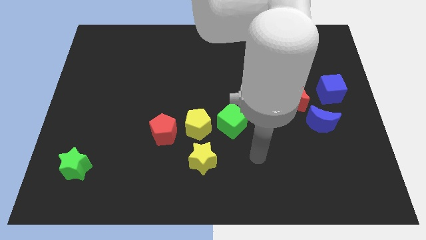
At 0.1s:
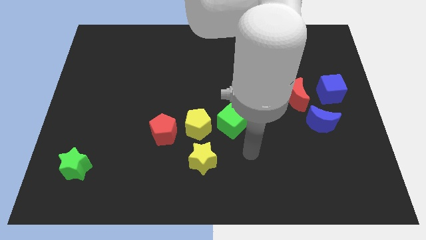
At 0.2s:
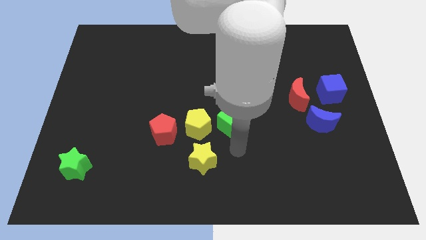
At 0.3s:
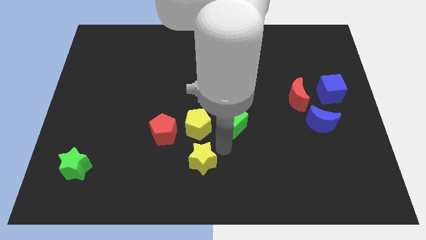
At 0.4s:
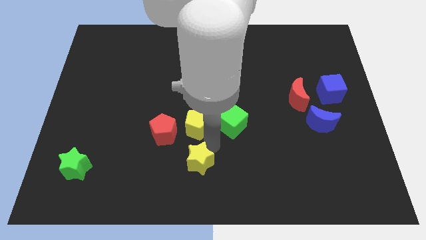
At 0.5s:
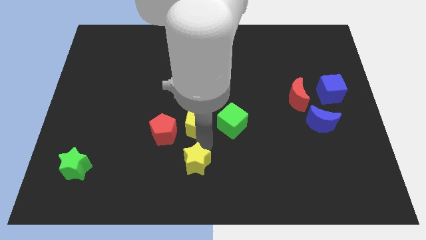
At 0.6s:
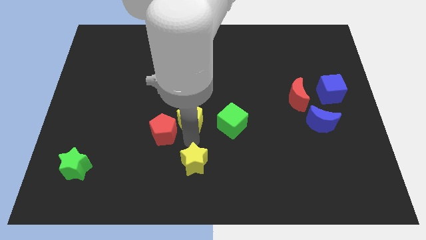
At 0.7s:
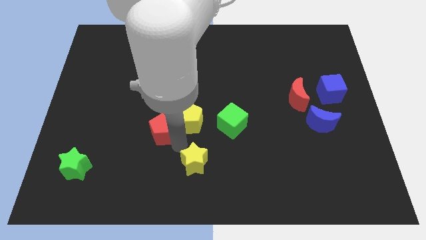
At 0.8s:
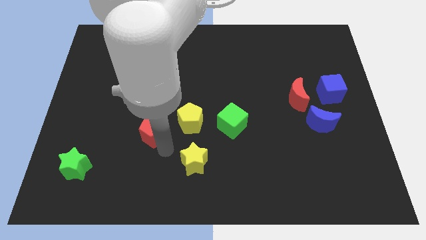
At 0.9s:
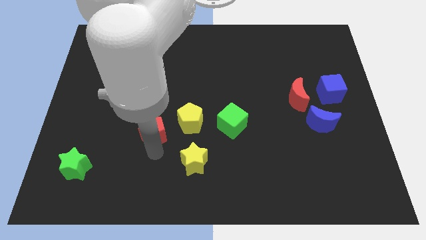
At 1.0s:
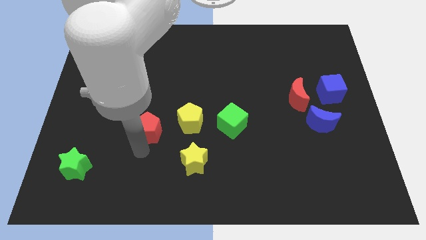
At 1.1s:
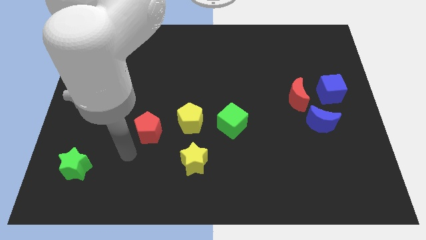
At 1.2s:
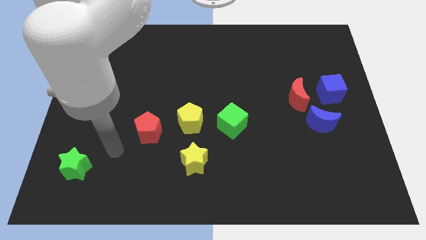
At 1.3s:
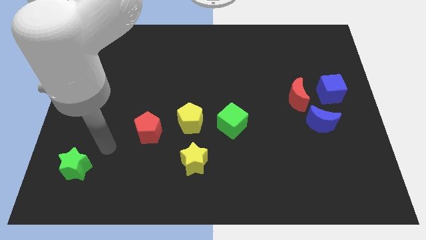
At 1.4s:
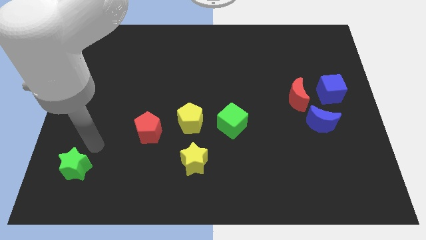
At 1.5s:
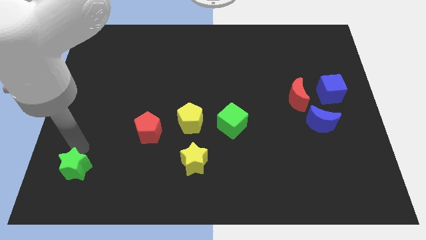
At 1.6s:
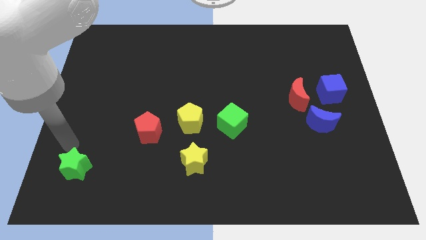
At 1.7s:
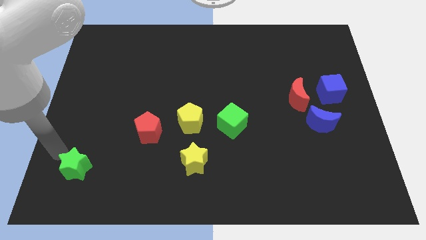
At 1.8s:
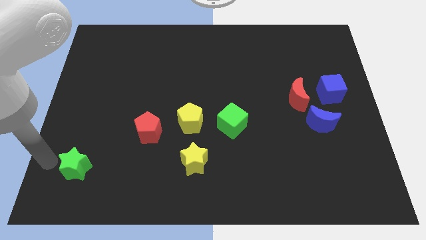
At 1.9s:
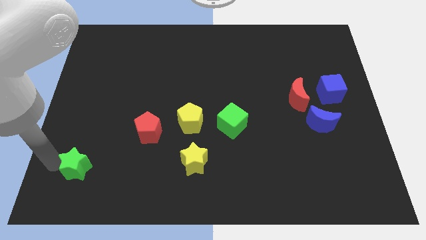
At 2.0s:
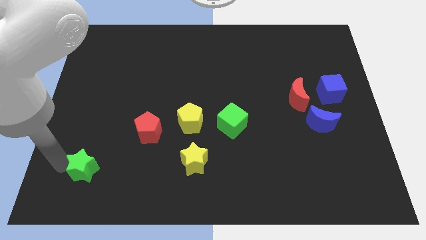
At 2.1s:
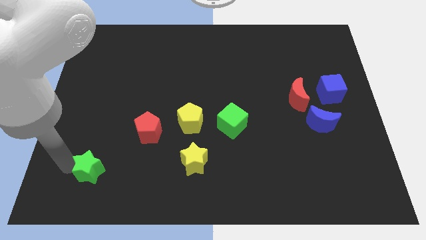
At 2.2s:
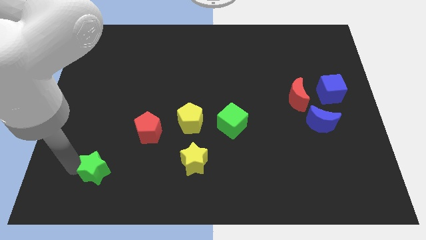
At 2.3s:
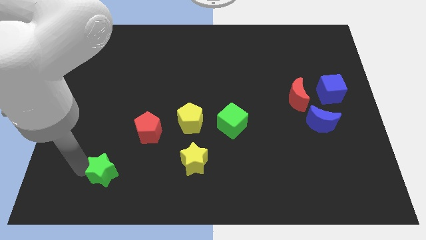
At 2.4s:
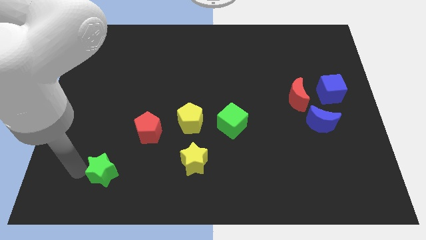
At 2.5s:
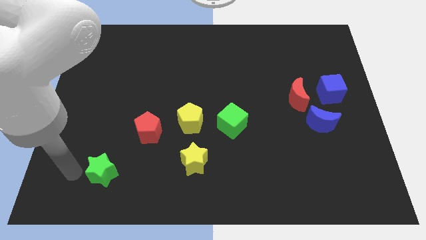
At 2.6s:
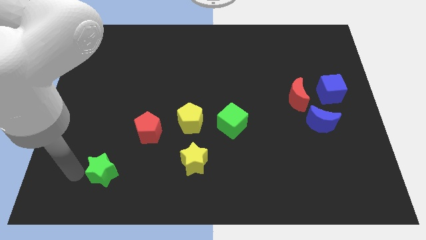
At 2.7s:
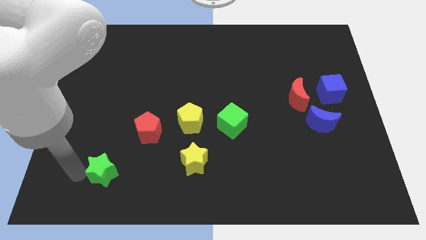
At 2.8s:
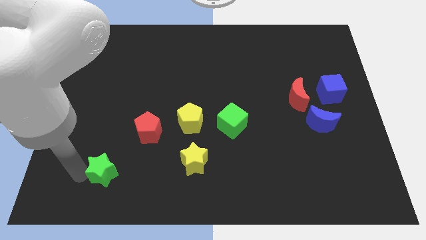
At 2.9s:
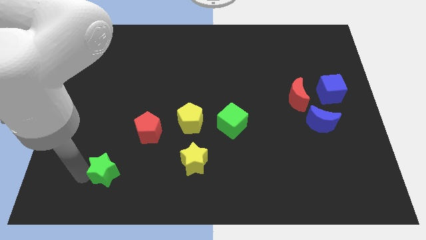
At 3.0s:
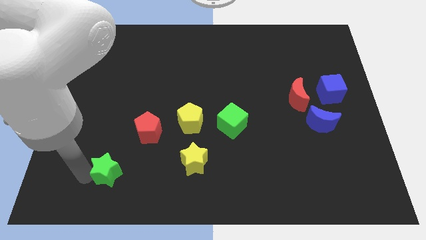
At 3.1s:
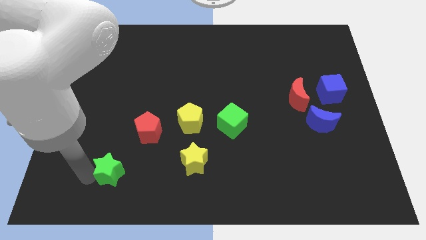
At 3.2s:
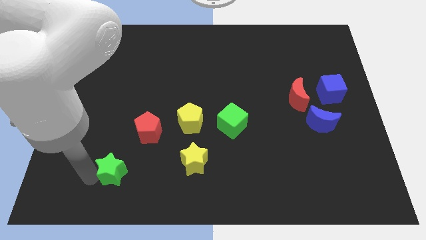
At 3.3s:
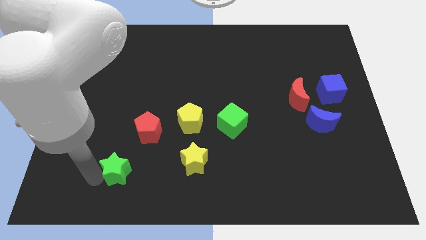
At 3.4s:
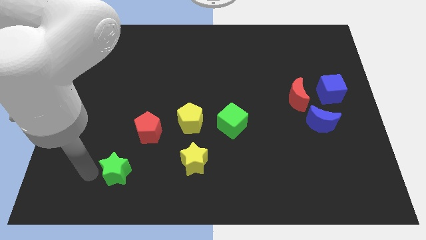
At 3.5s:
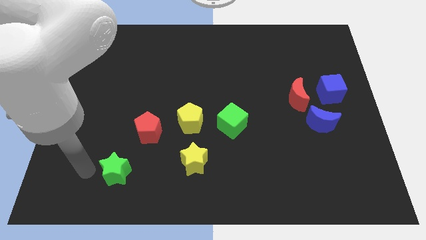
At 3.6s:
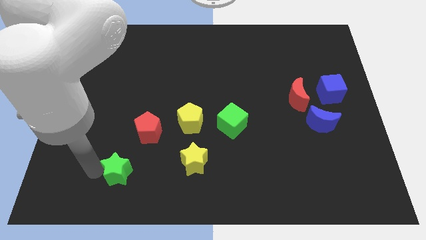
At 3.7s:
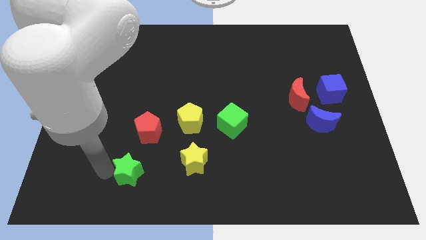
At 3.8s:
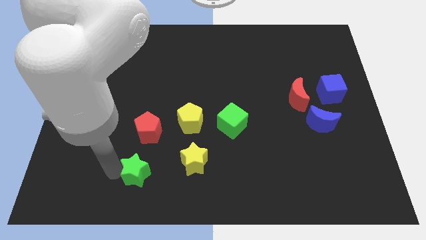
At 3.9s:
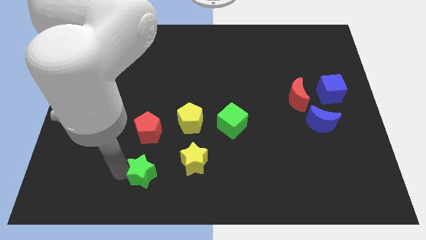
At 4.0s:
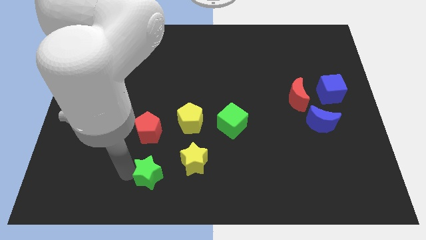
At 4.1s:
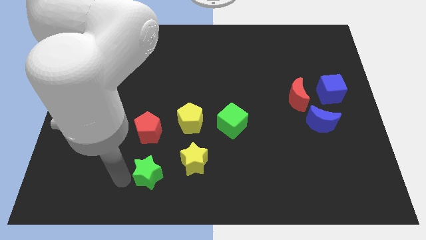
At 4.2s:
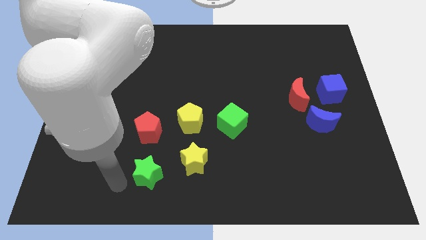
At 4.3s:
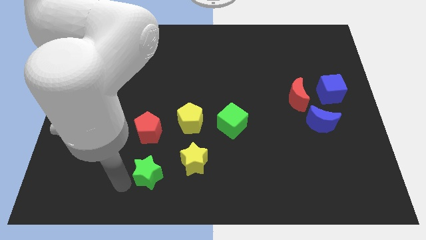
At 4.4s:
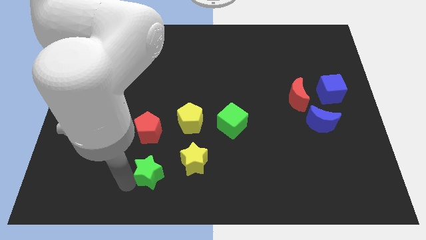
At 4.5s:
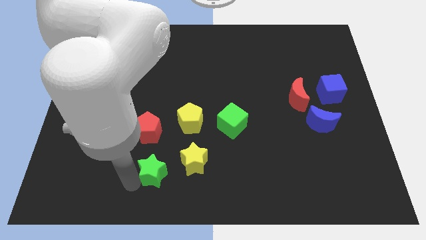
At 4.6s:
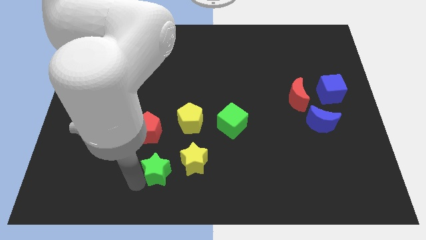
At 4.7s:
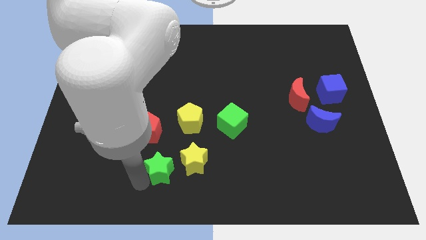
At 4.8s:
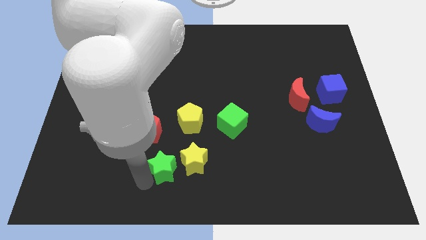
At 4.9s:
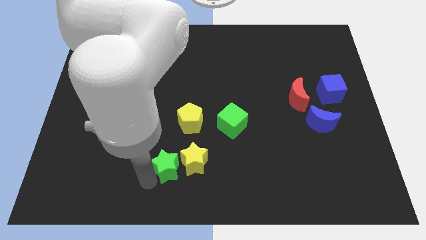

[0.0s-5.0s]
move the green star below the yellow pentagon

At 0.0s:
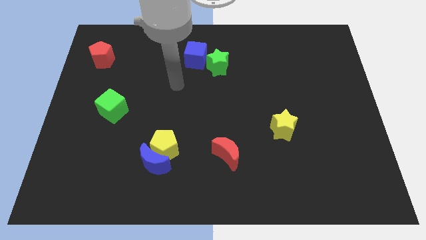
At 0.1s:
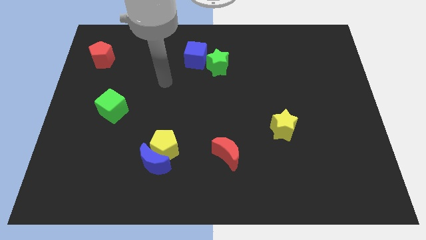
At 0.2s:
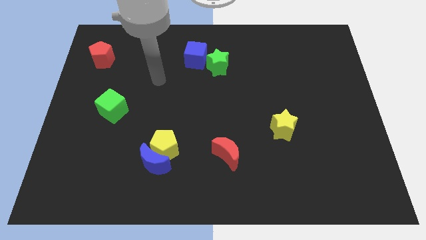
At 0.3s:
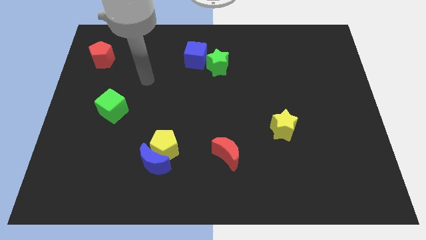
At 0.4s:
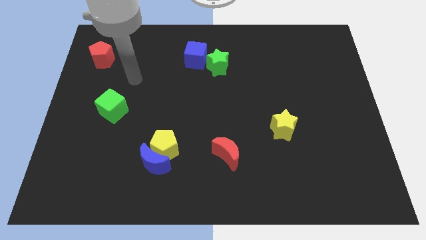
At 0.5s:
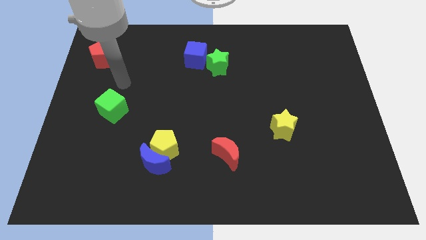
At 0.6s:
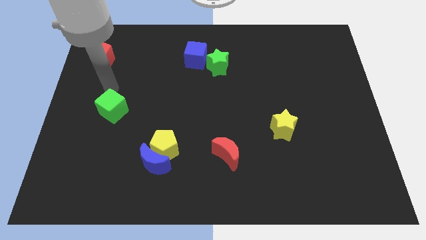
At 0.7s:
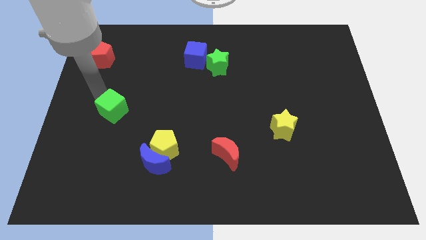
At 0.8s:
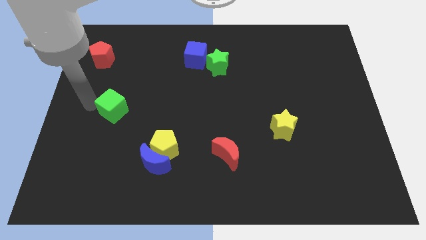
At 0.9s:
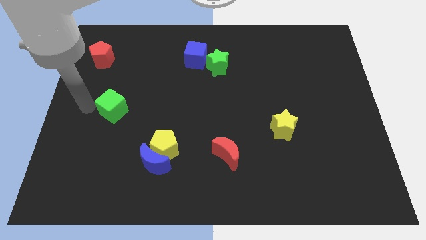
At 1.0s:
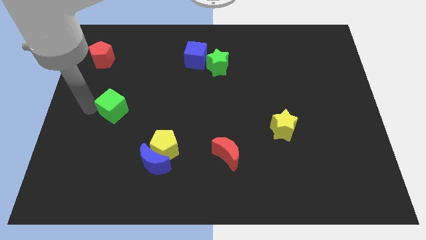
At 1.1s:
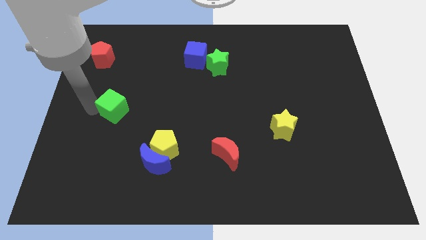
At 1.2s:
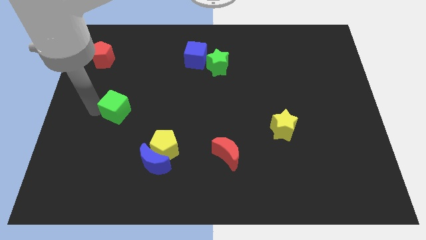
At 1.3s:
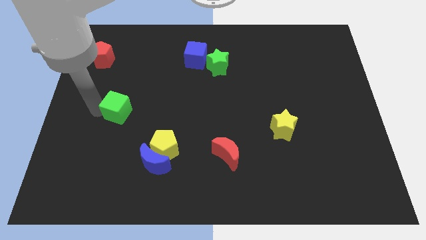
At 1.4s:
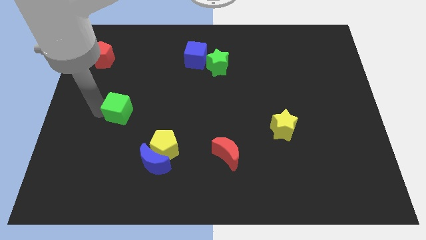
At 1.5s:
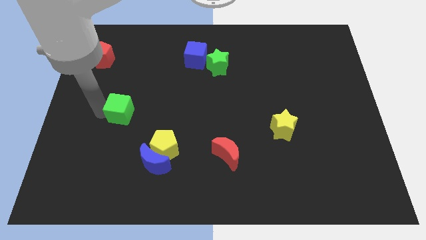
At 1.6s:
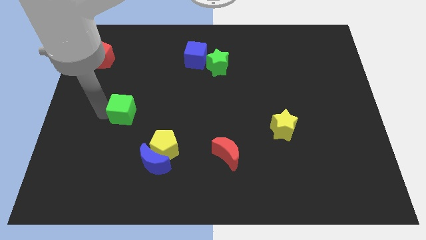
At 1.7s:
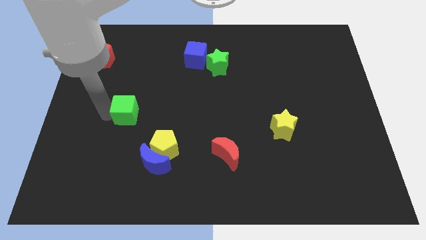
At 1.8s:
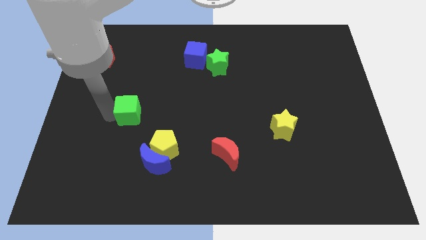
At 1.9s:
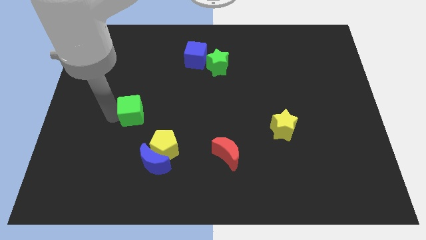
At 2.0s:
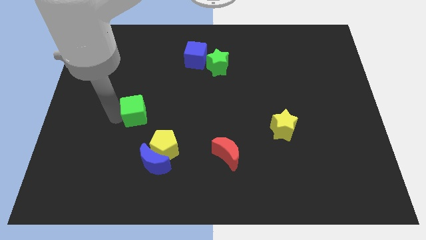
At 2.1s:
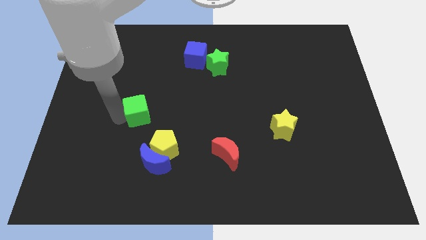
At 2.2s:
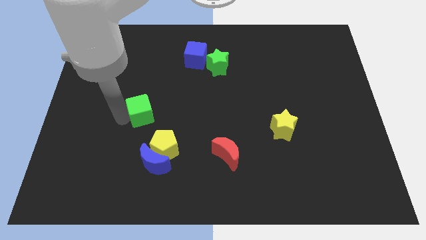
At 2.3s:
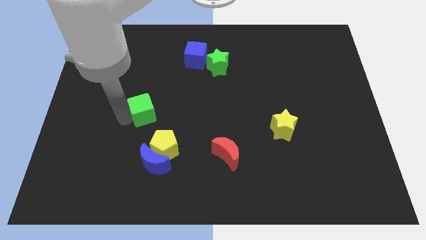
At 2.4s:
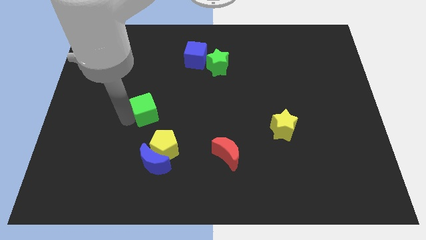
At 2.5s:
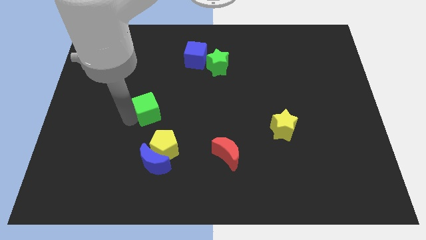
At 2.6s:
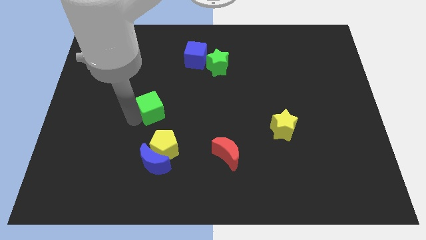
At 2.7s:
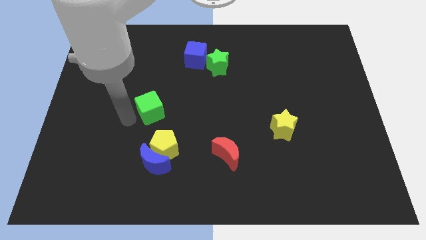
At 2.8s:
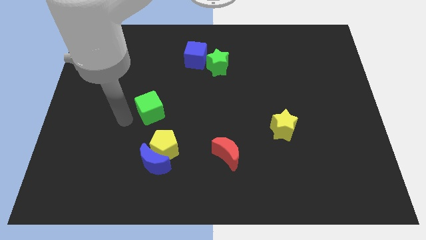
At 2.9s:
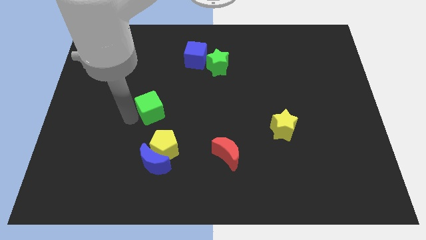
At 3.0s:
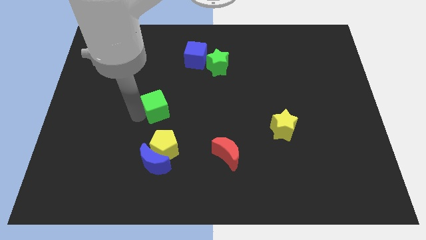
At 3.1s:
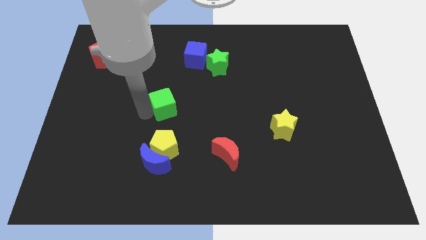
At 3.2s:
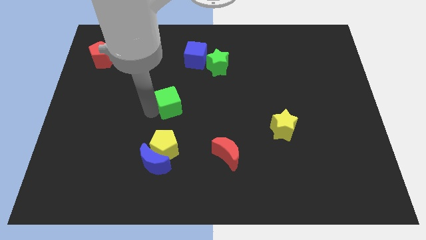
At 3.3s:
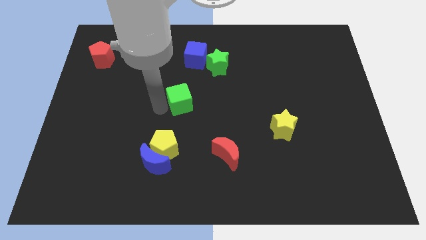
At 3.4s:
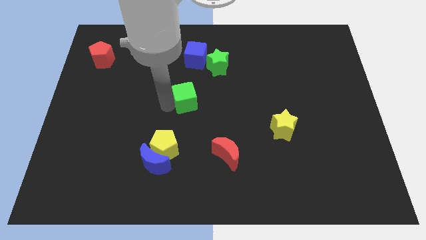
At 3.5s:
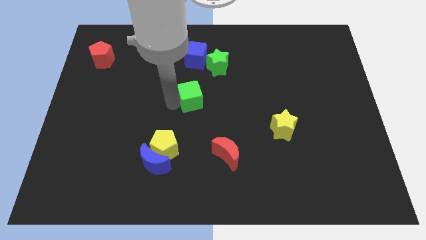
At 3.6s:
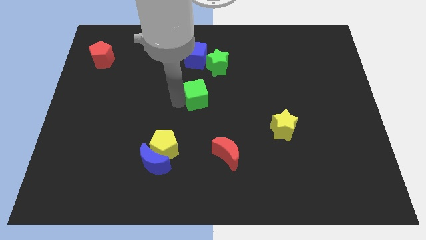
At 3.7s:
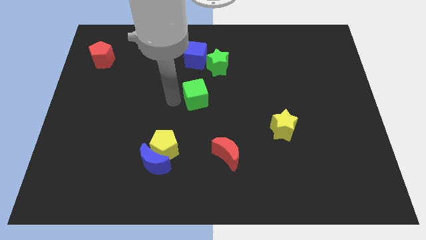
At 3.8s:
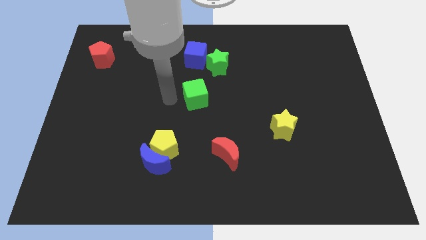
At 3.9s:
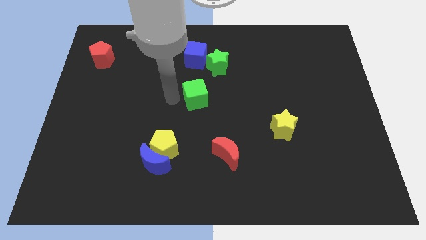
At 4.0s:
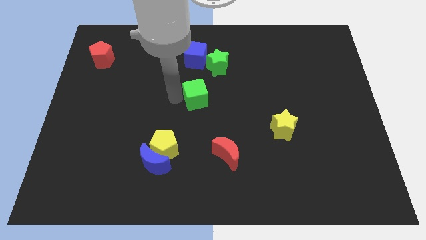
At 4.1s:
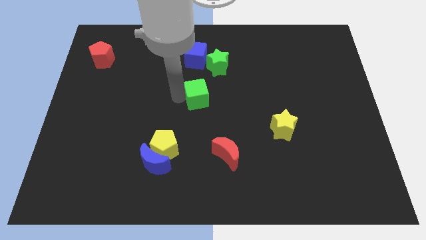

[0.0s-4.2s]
put the green cube to the bottom side of the green star
